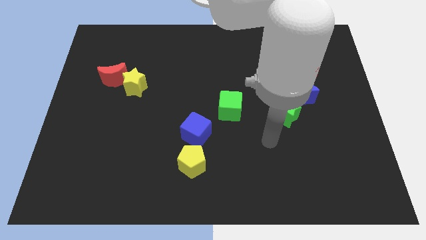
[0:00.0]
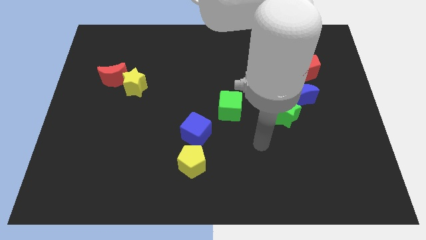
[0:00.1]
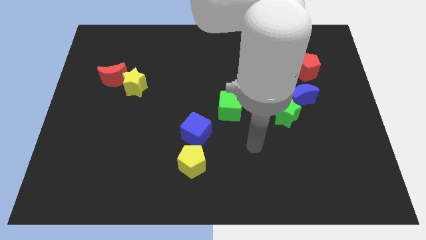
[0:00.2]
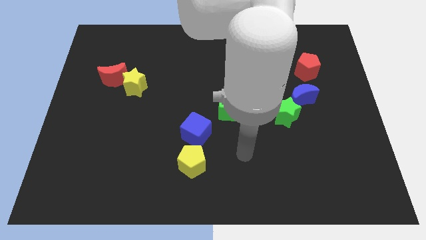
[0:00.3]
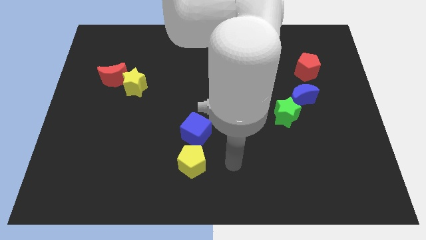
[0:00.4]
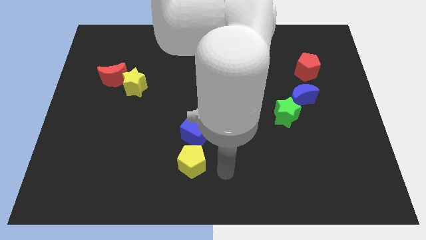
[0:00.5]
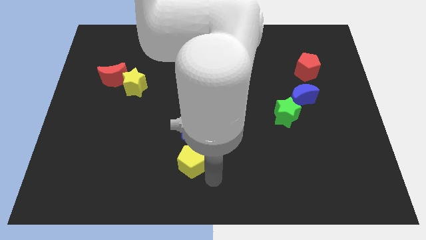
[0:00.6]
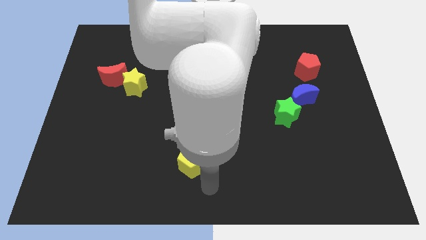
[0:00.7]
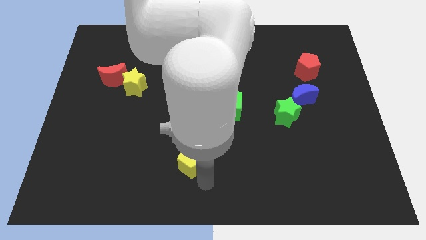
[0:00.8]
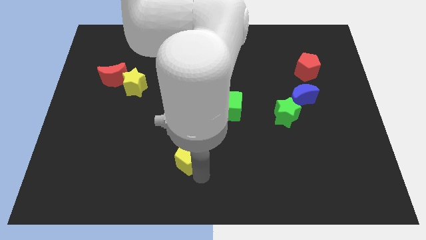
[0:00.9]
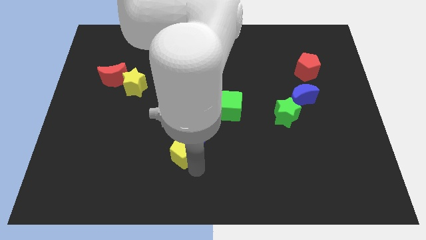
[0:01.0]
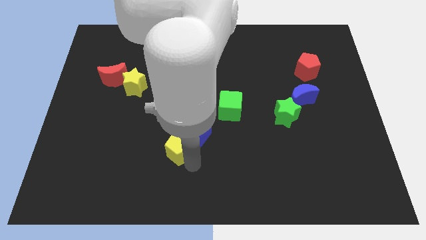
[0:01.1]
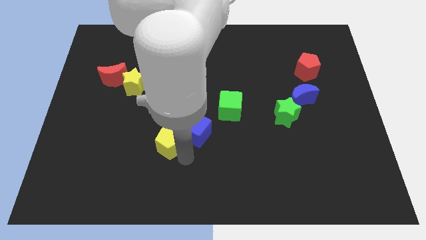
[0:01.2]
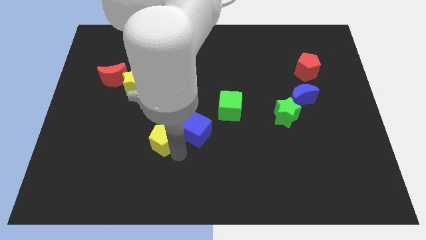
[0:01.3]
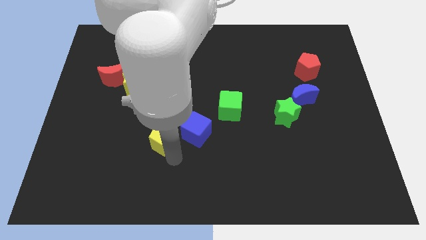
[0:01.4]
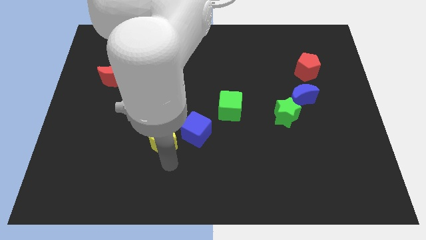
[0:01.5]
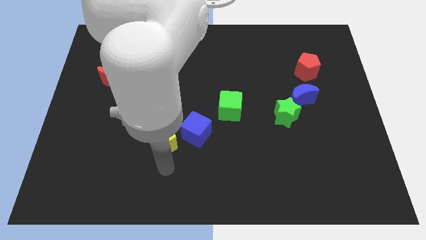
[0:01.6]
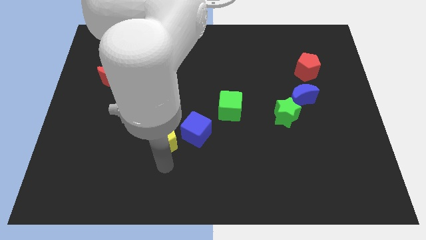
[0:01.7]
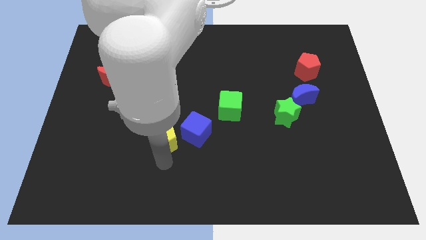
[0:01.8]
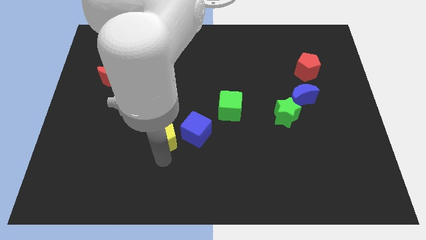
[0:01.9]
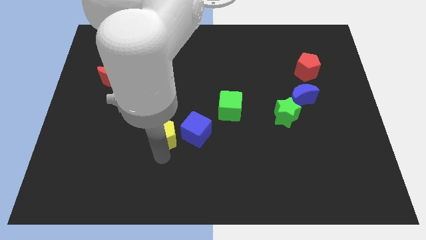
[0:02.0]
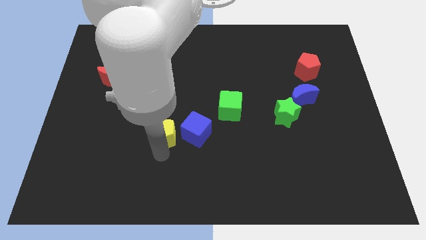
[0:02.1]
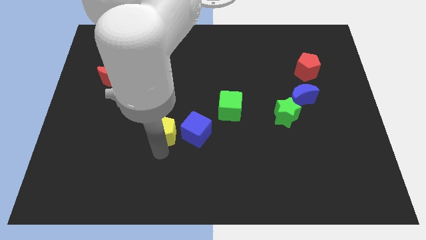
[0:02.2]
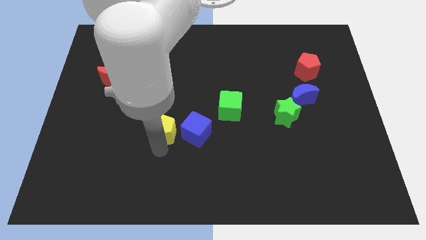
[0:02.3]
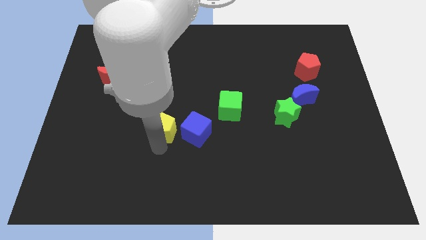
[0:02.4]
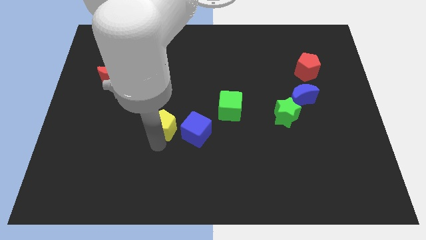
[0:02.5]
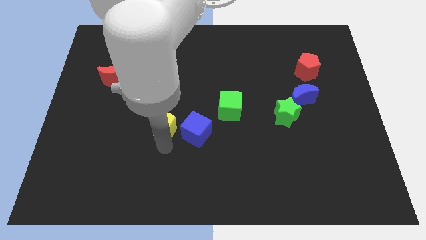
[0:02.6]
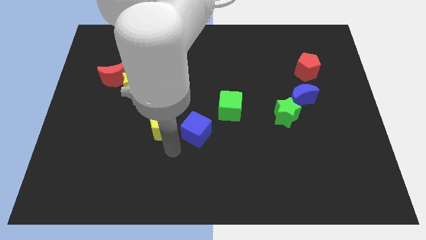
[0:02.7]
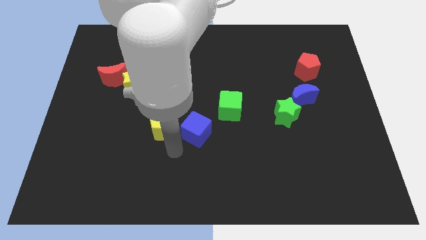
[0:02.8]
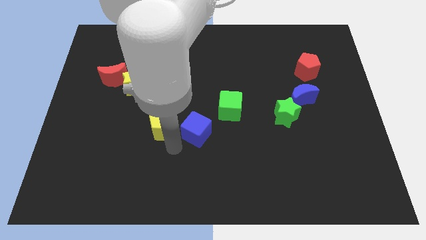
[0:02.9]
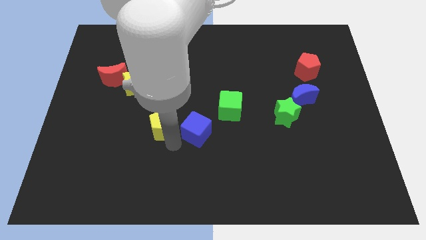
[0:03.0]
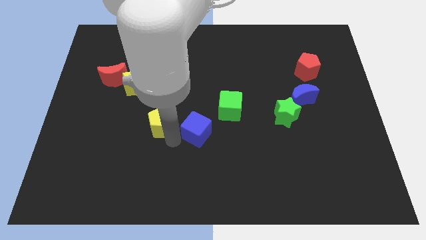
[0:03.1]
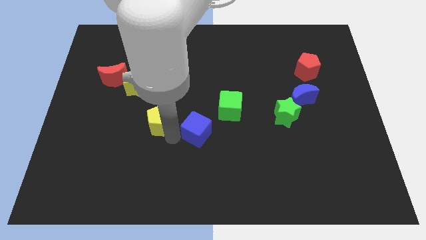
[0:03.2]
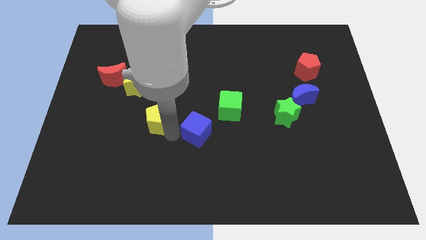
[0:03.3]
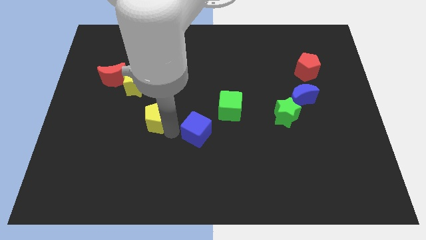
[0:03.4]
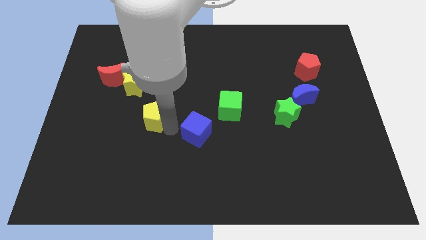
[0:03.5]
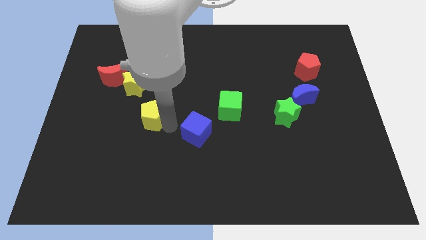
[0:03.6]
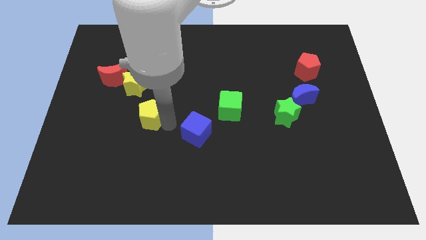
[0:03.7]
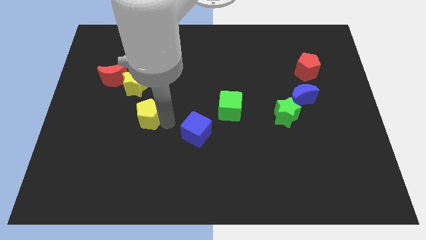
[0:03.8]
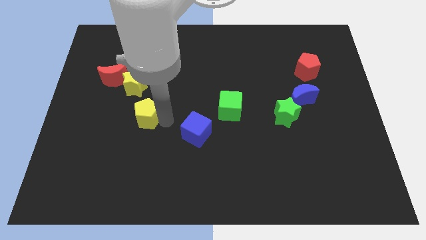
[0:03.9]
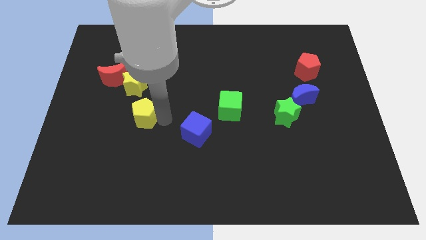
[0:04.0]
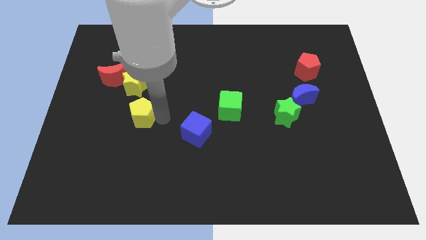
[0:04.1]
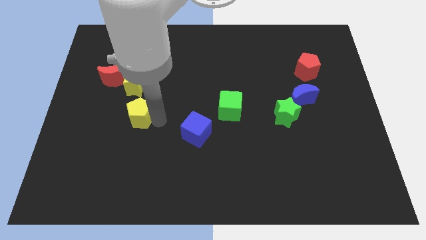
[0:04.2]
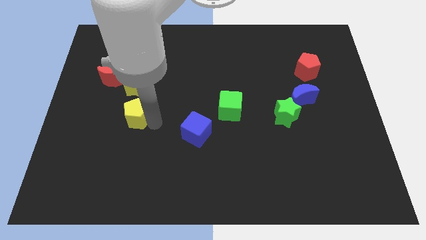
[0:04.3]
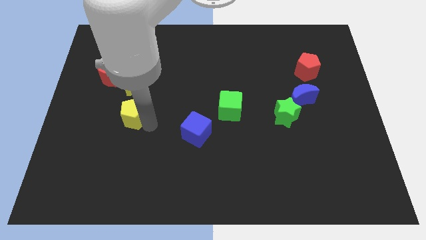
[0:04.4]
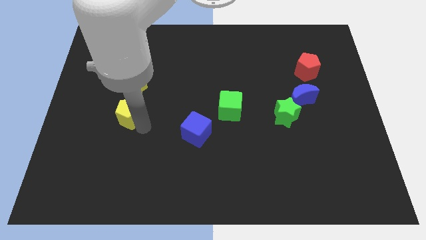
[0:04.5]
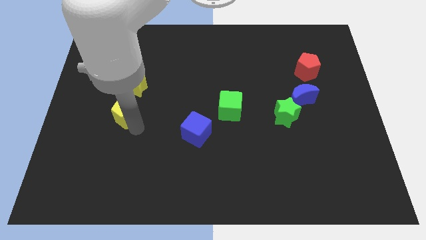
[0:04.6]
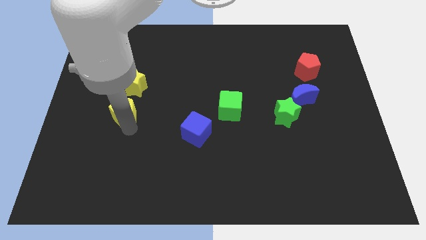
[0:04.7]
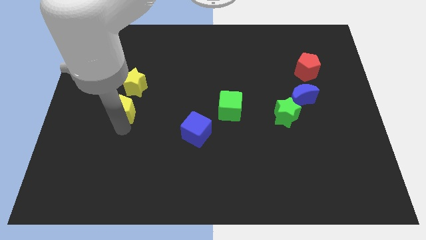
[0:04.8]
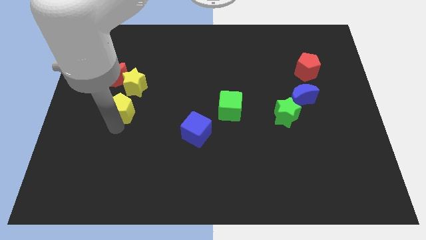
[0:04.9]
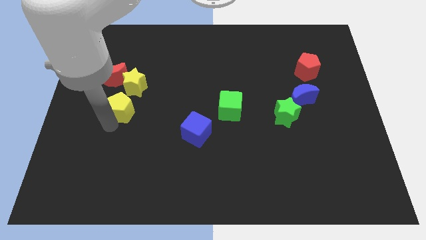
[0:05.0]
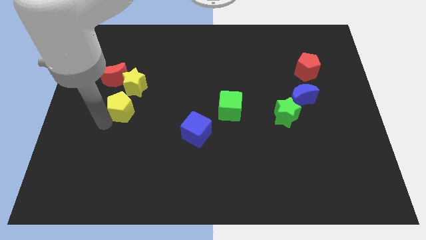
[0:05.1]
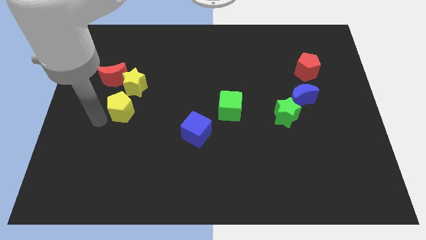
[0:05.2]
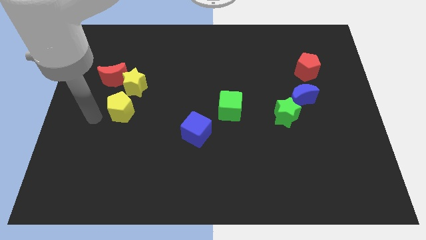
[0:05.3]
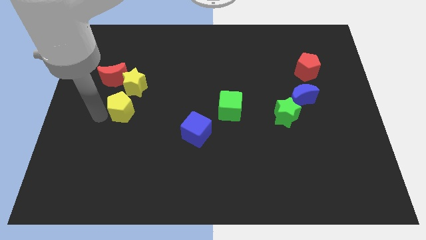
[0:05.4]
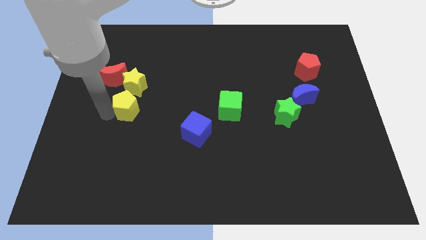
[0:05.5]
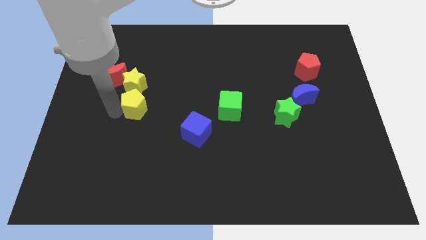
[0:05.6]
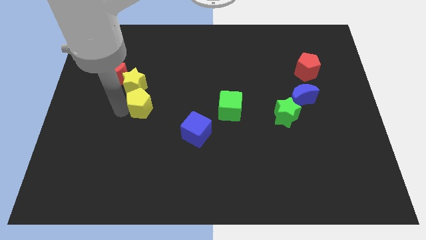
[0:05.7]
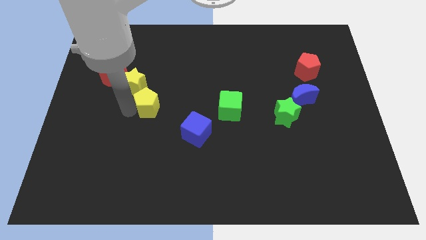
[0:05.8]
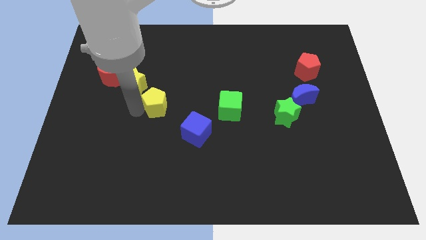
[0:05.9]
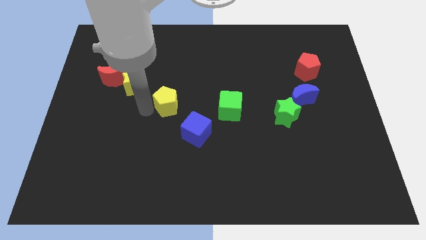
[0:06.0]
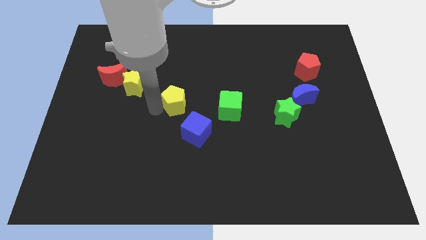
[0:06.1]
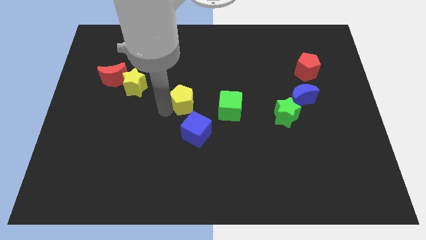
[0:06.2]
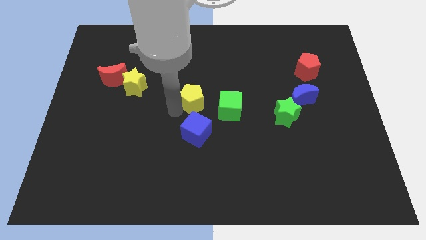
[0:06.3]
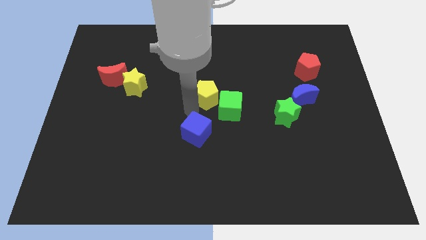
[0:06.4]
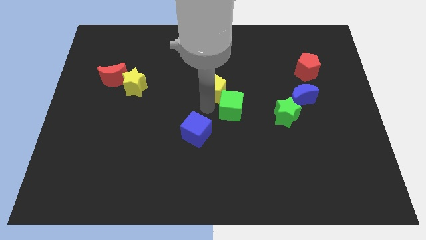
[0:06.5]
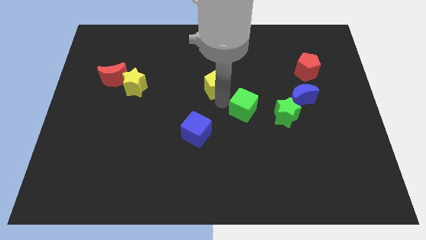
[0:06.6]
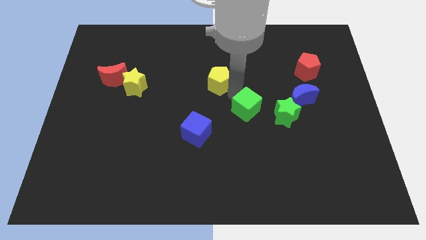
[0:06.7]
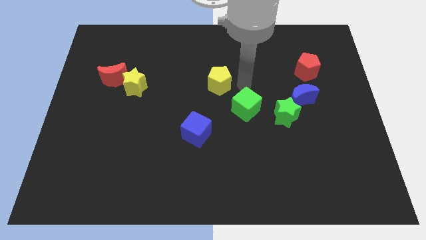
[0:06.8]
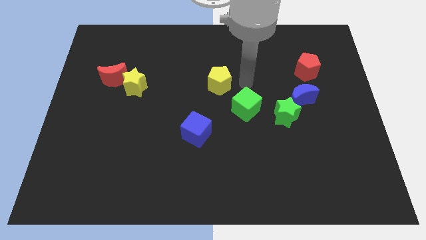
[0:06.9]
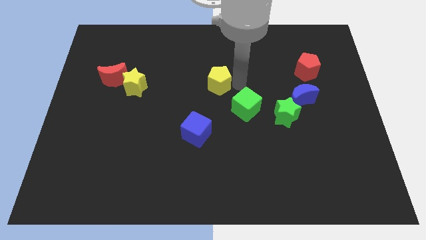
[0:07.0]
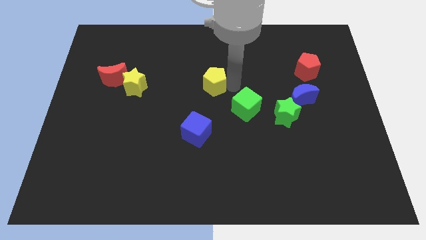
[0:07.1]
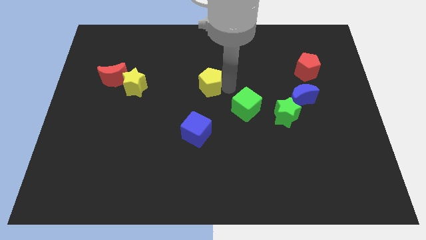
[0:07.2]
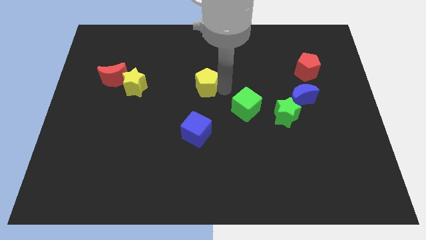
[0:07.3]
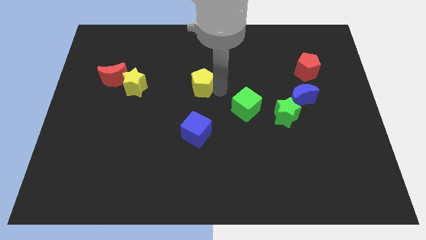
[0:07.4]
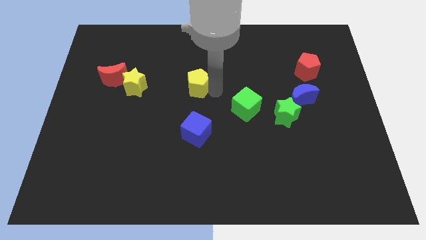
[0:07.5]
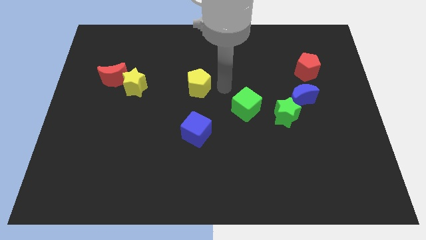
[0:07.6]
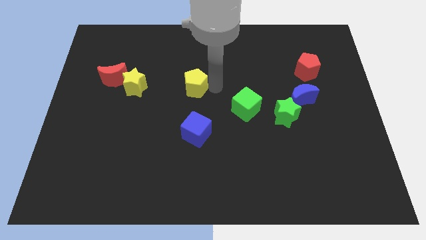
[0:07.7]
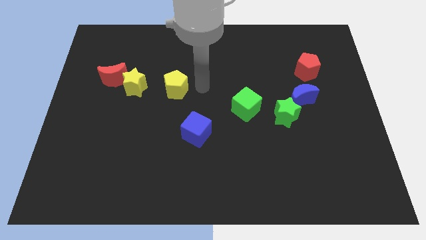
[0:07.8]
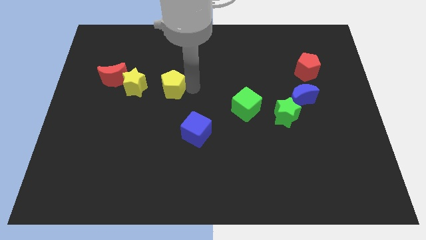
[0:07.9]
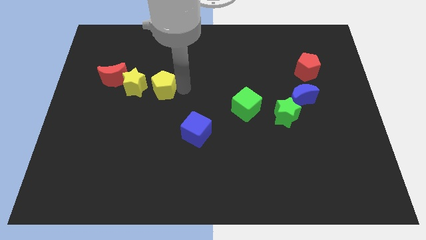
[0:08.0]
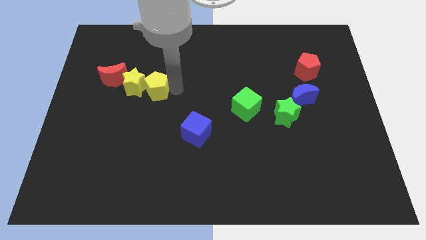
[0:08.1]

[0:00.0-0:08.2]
push the yellow pentagon to the yellow star
